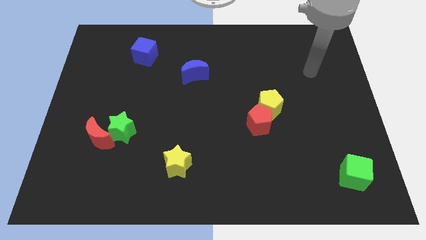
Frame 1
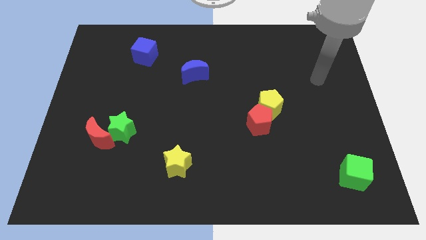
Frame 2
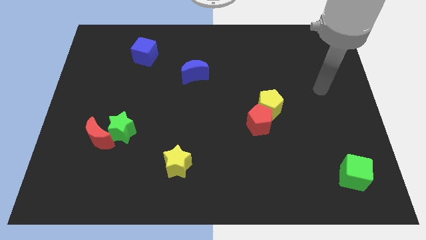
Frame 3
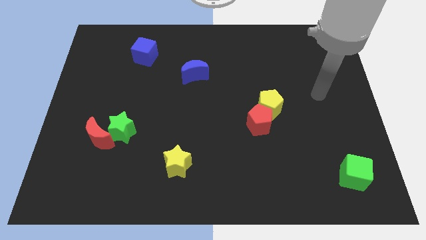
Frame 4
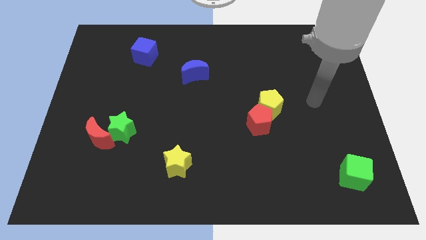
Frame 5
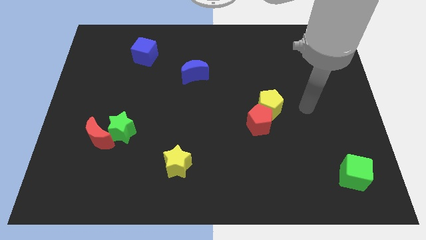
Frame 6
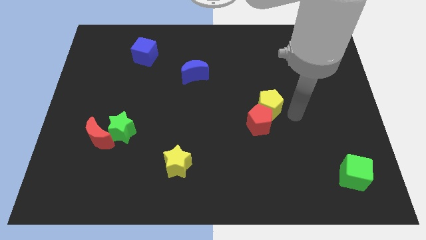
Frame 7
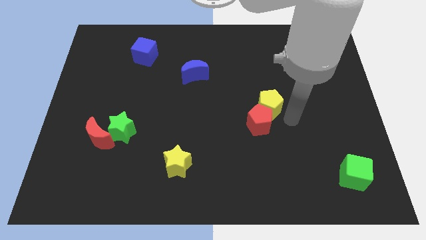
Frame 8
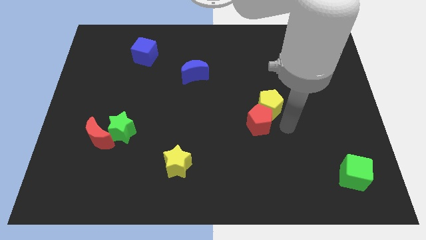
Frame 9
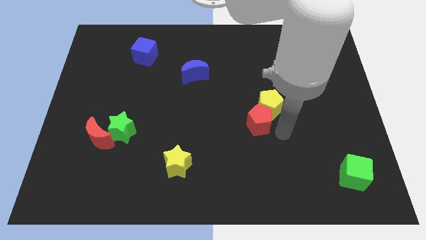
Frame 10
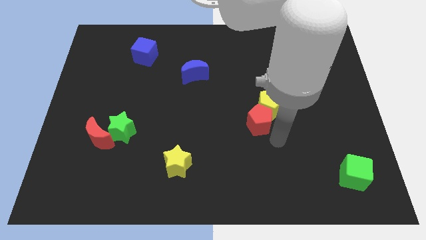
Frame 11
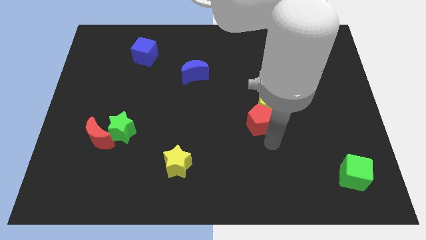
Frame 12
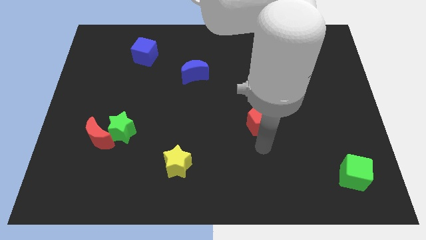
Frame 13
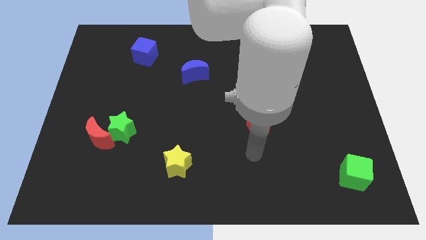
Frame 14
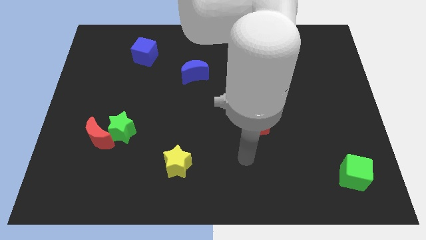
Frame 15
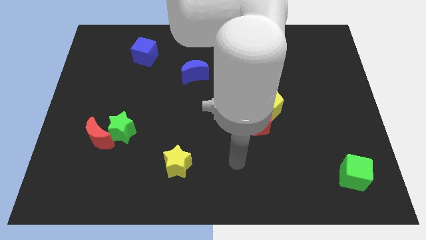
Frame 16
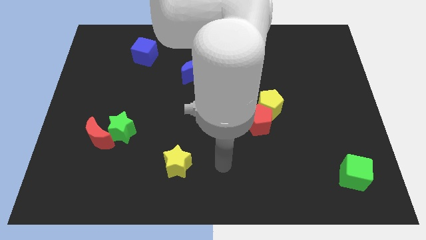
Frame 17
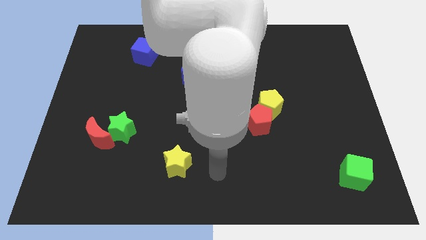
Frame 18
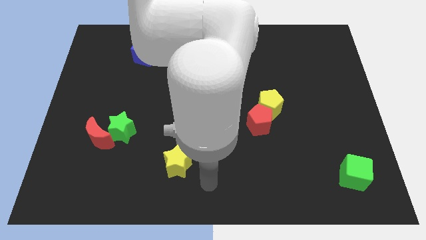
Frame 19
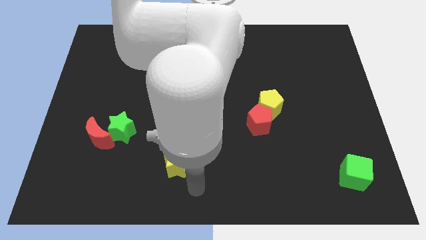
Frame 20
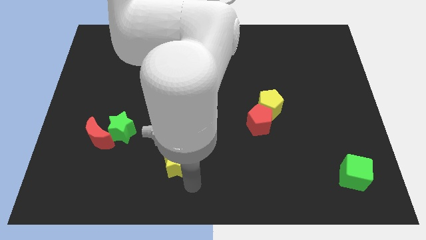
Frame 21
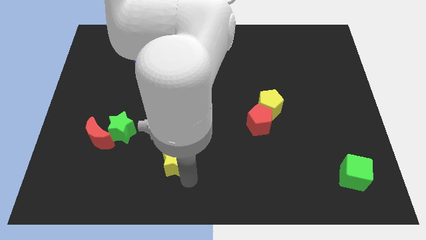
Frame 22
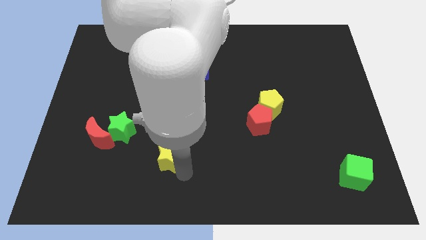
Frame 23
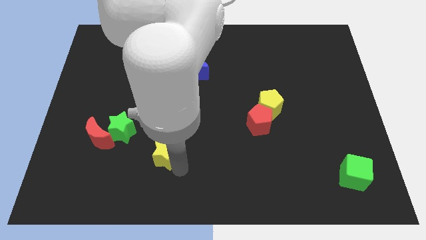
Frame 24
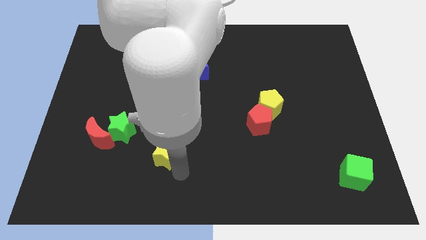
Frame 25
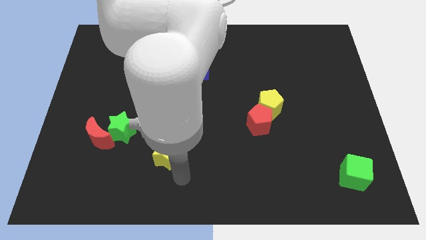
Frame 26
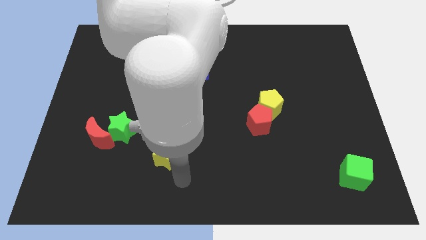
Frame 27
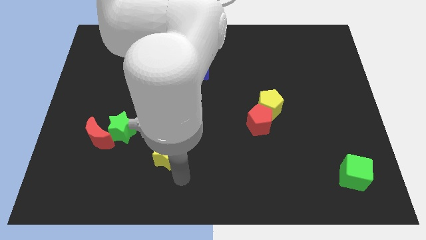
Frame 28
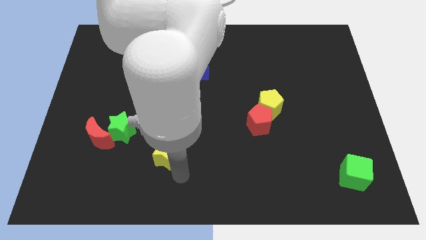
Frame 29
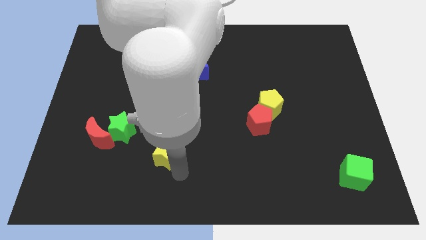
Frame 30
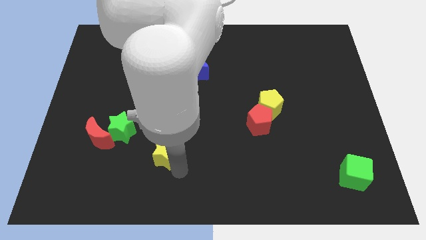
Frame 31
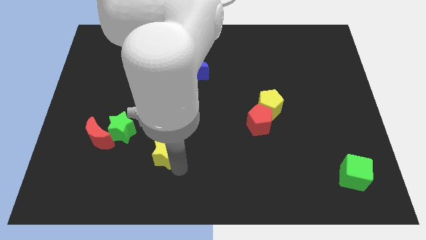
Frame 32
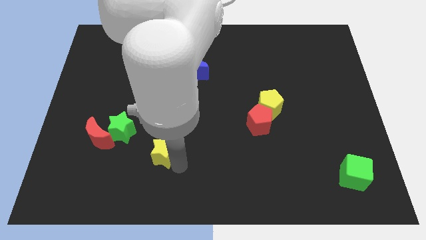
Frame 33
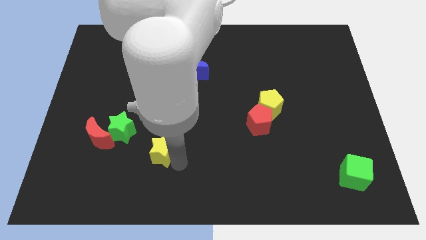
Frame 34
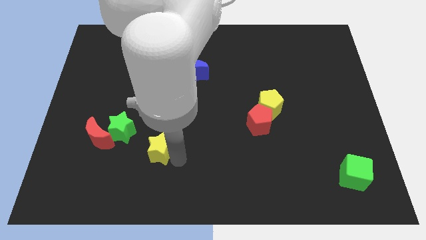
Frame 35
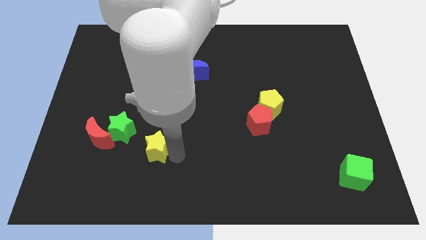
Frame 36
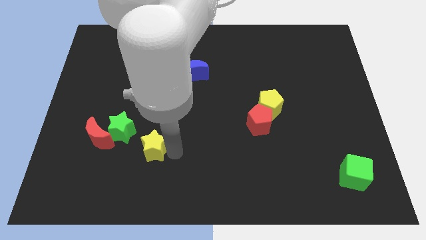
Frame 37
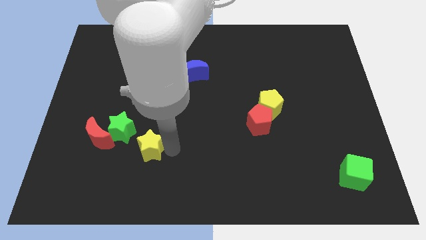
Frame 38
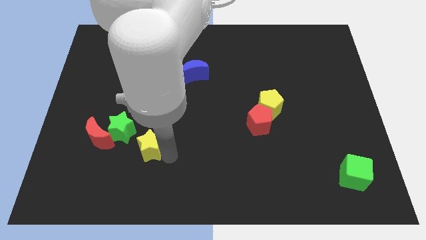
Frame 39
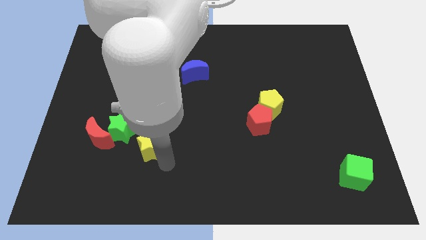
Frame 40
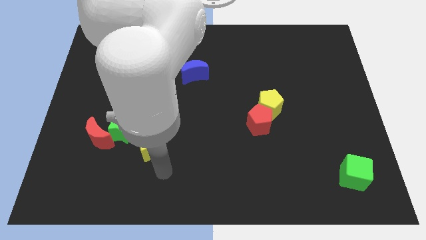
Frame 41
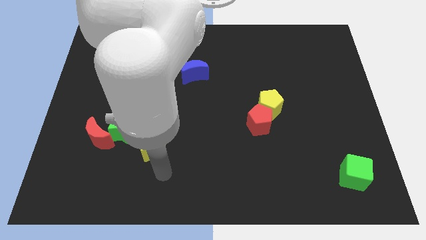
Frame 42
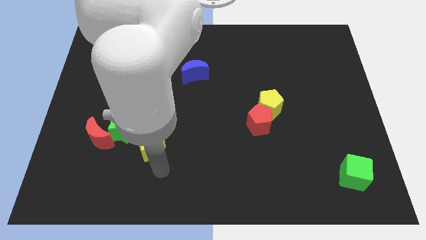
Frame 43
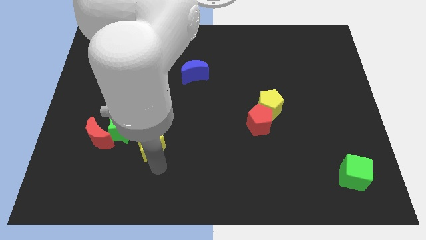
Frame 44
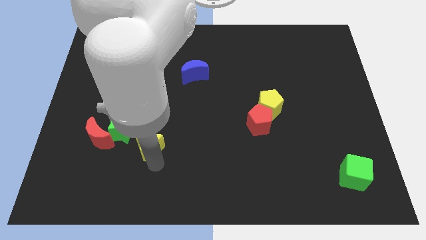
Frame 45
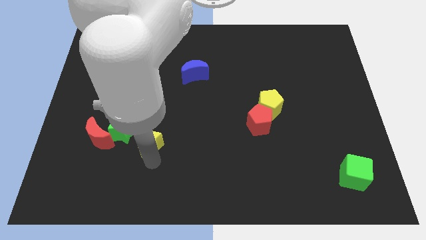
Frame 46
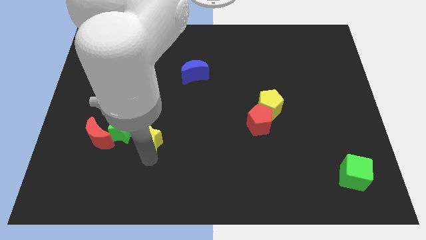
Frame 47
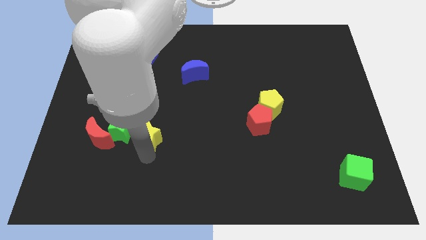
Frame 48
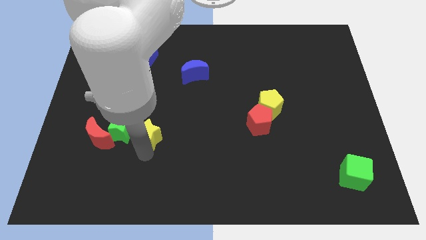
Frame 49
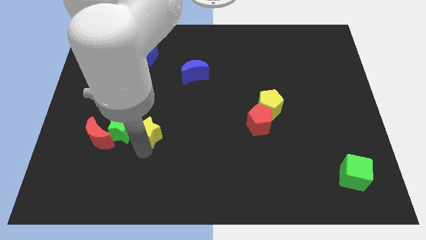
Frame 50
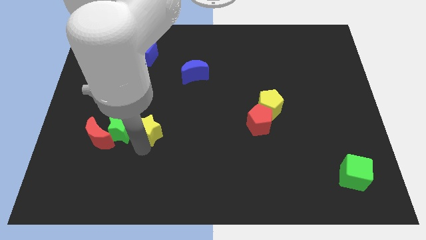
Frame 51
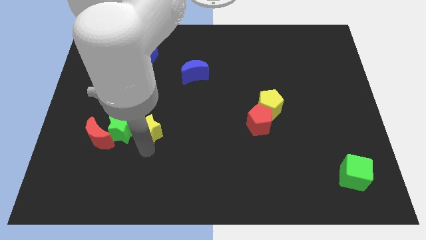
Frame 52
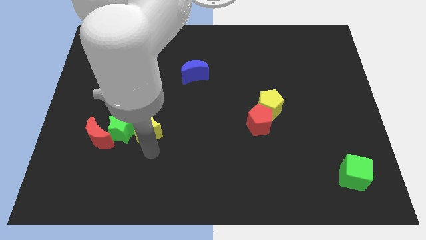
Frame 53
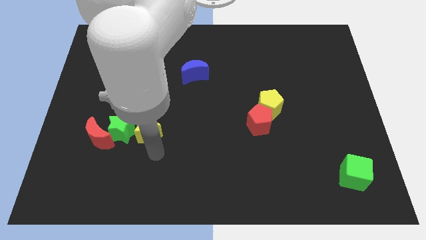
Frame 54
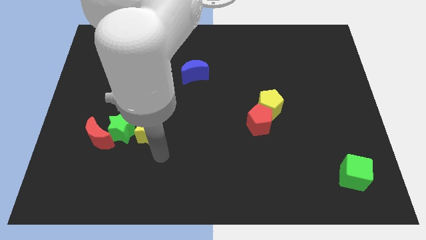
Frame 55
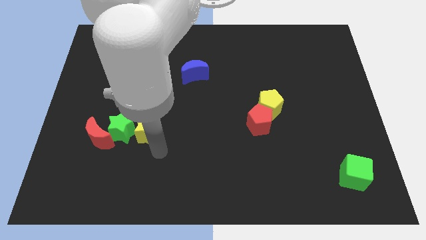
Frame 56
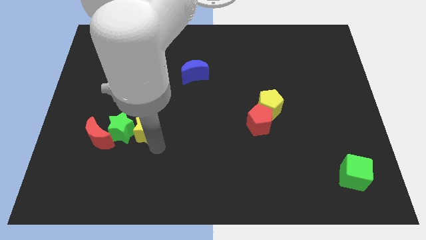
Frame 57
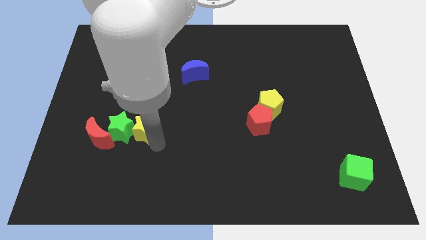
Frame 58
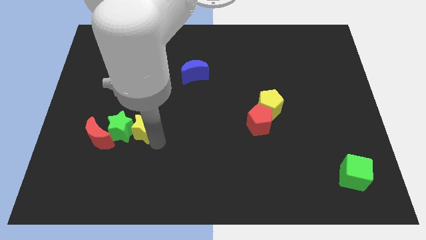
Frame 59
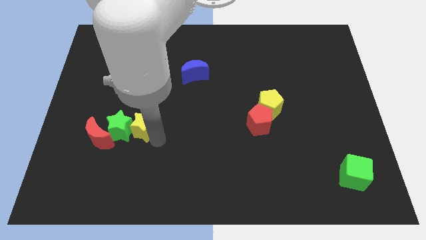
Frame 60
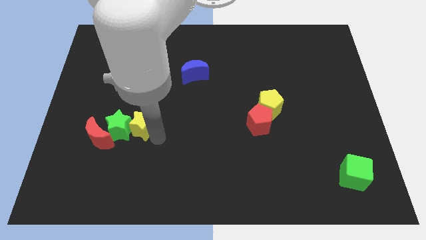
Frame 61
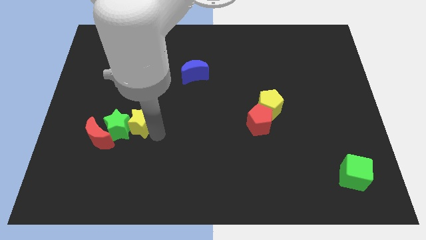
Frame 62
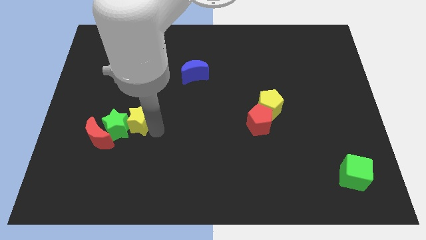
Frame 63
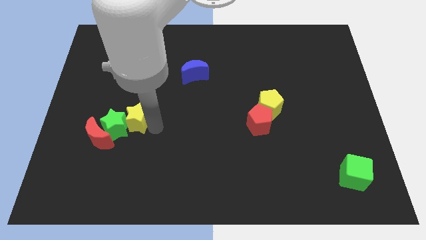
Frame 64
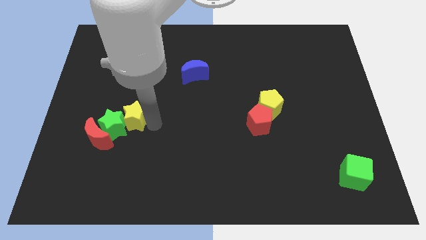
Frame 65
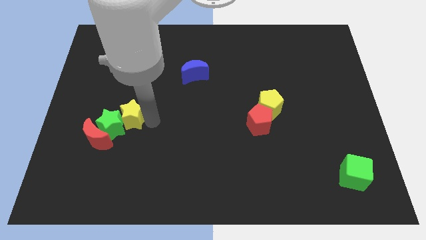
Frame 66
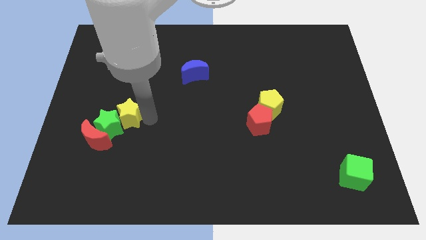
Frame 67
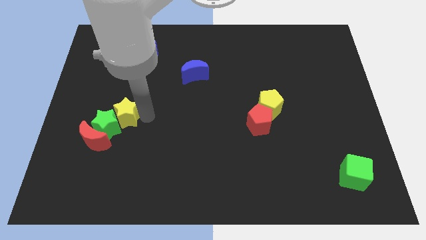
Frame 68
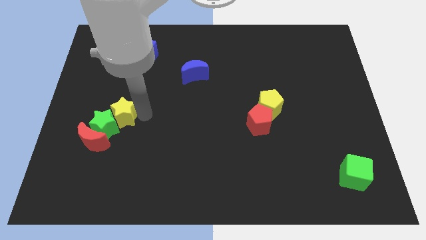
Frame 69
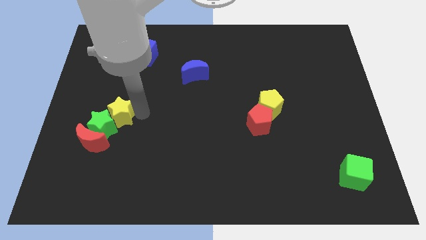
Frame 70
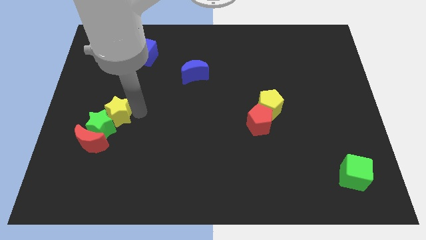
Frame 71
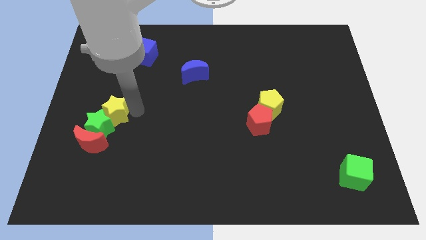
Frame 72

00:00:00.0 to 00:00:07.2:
slide the yellow star to the top of the red moon
